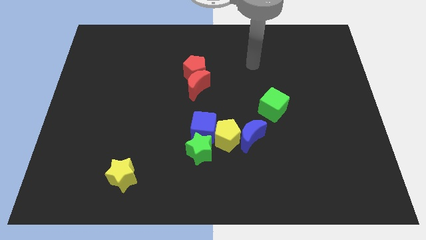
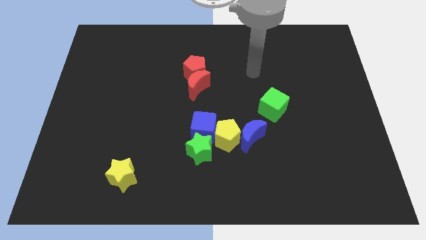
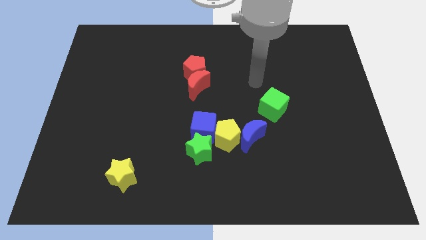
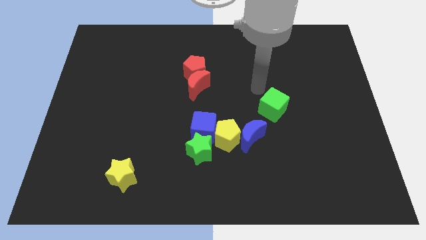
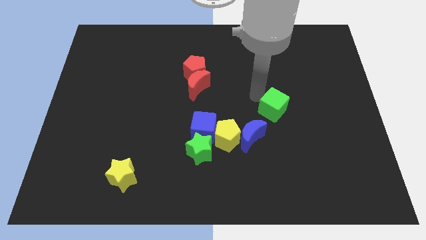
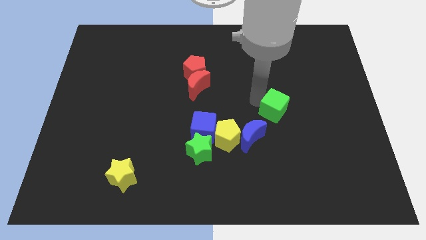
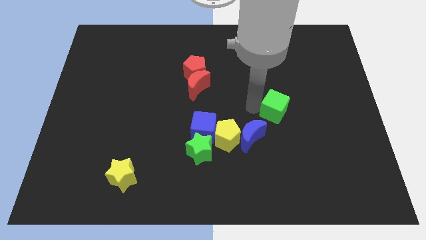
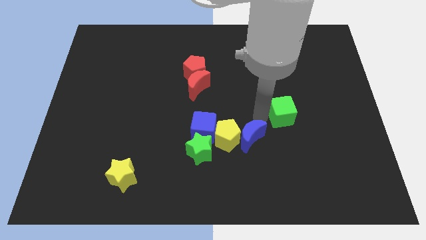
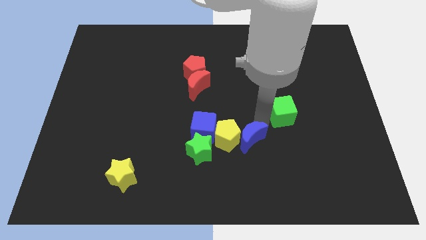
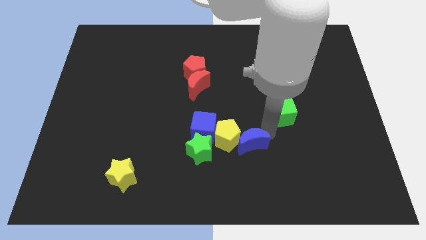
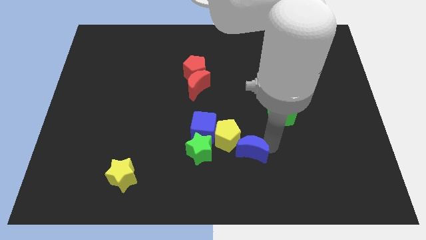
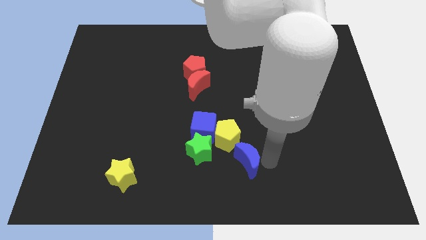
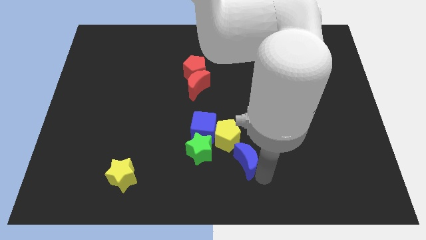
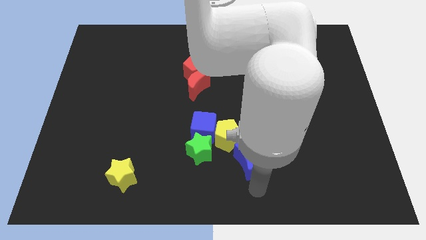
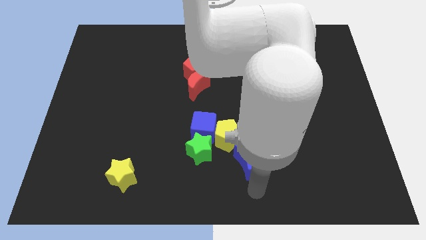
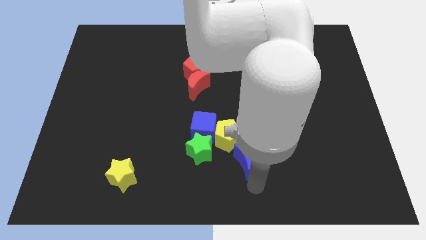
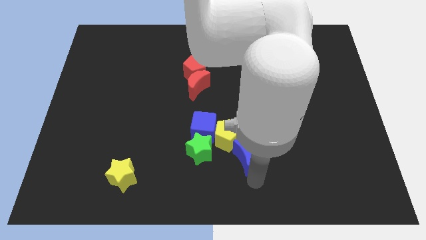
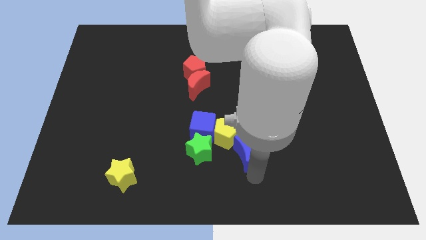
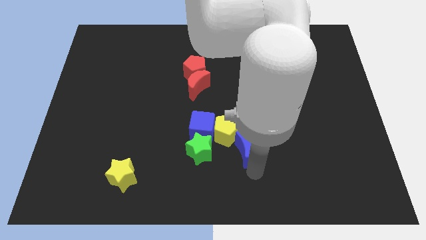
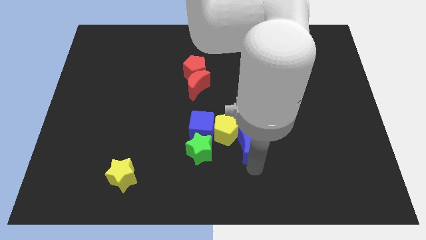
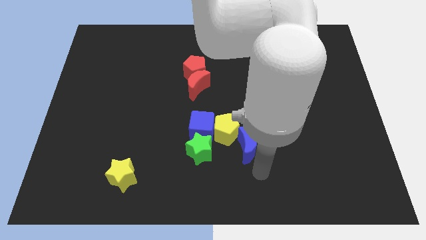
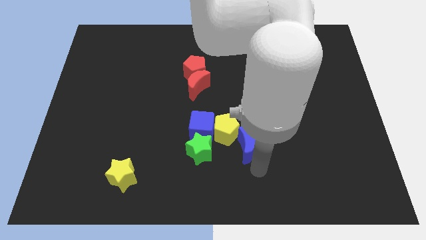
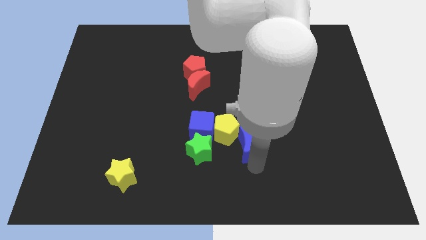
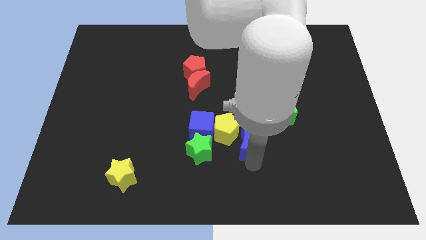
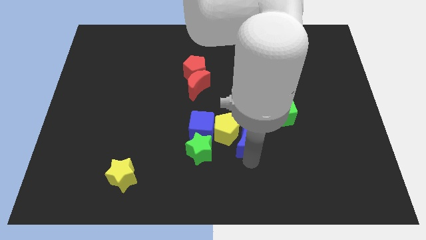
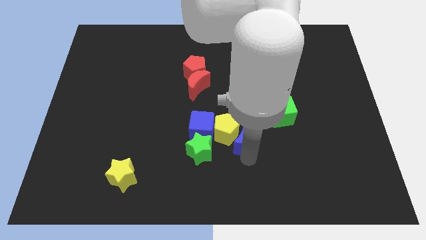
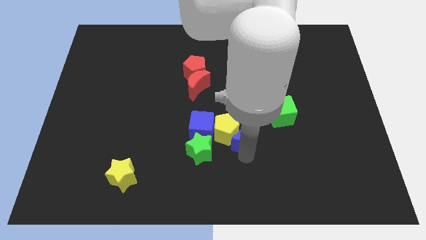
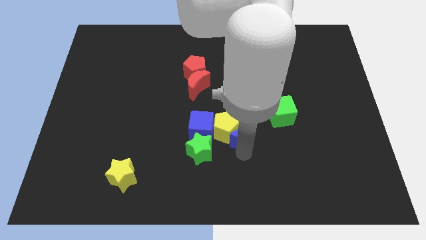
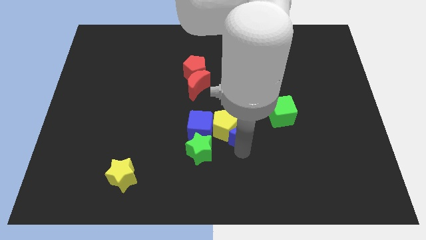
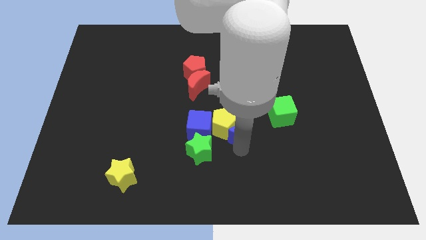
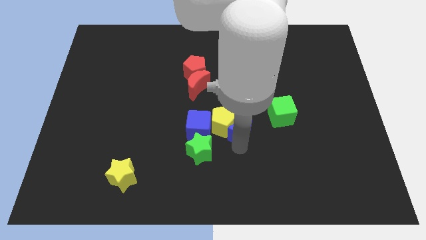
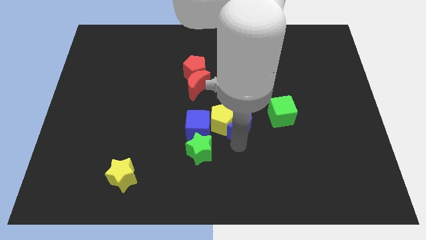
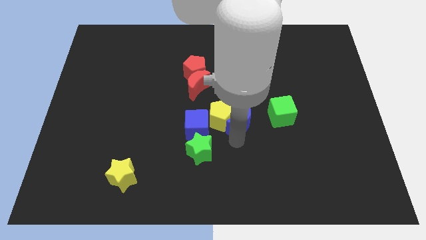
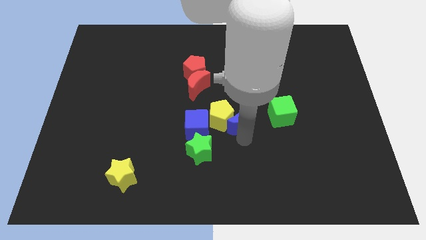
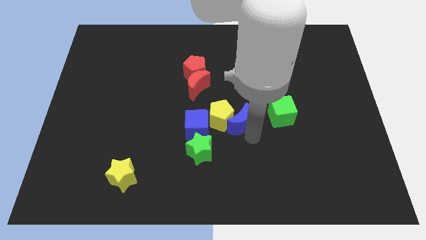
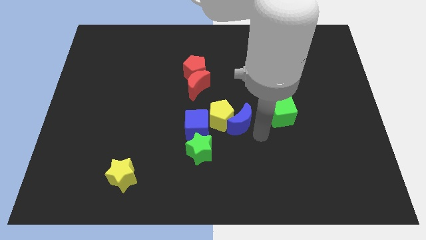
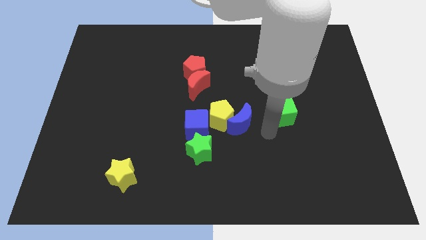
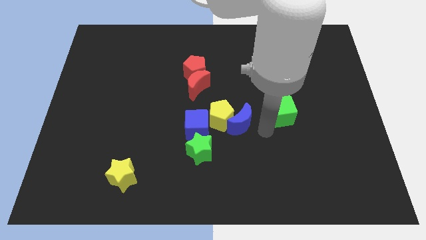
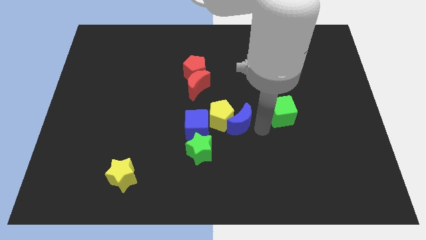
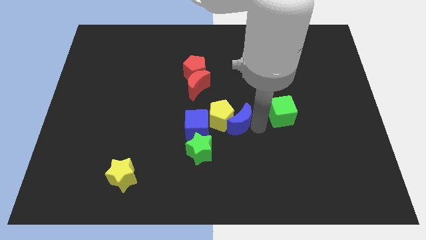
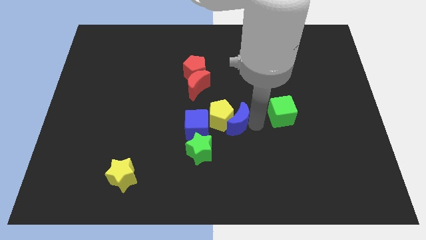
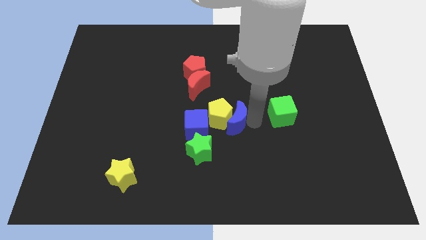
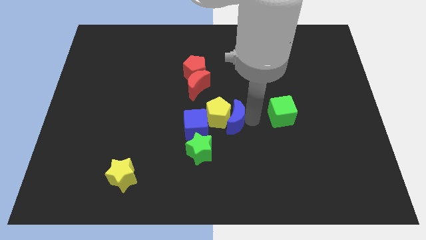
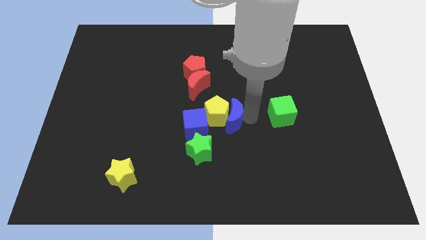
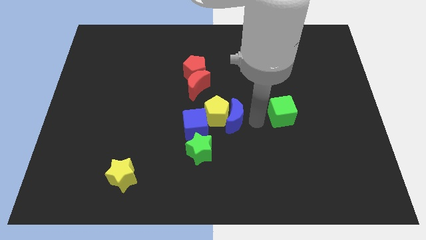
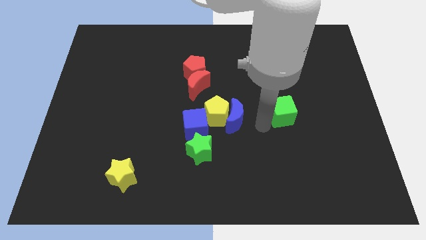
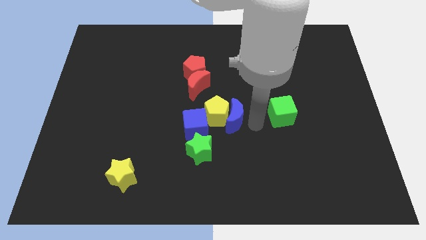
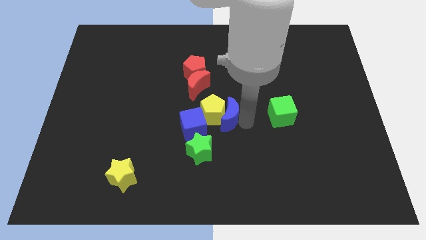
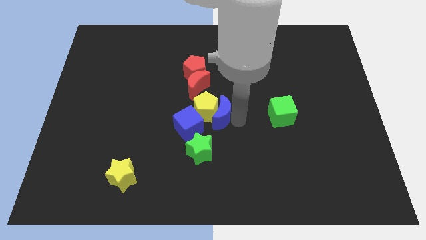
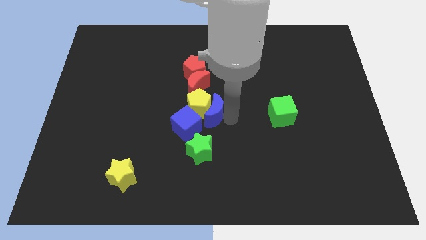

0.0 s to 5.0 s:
put the blue moon to the top of the green star

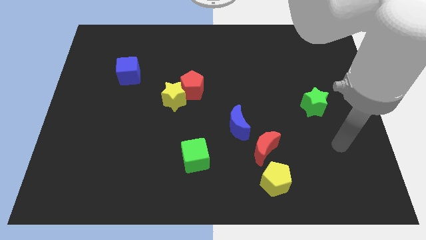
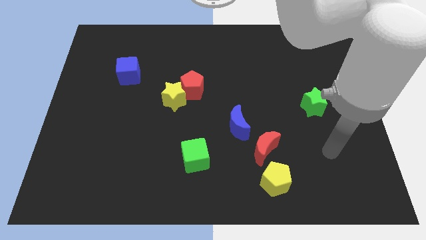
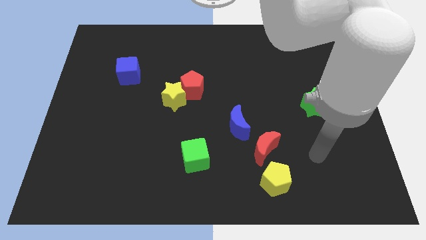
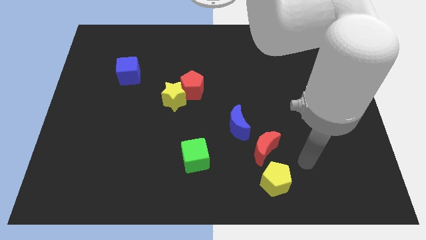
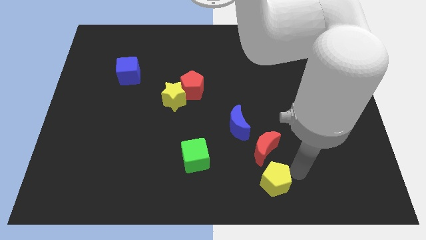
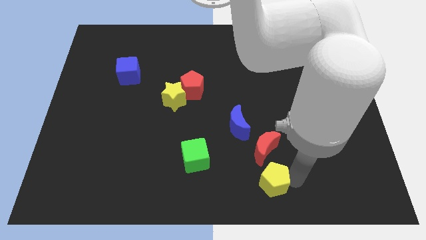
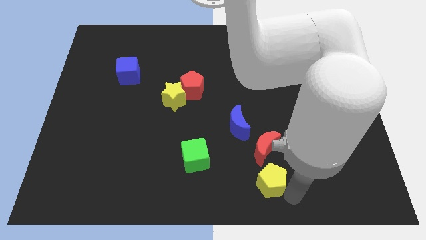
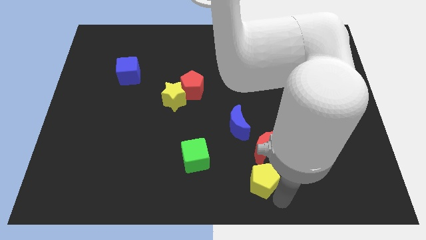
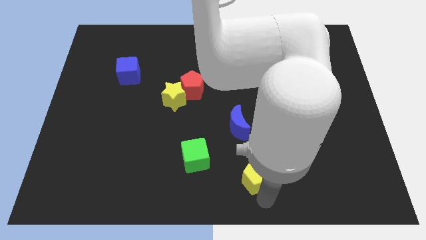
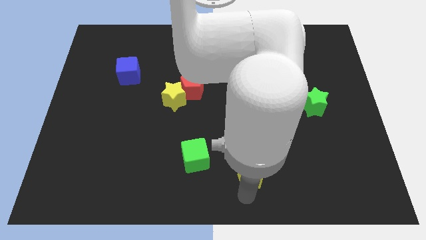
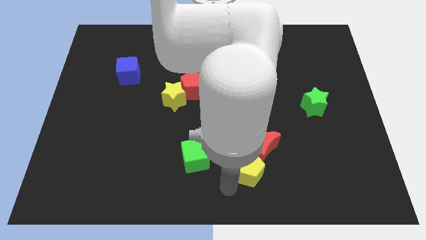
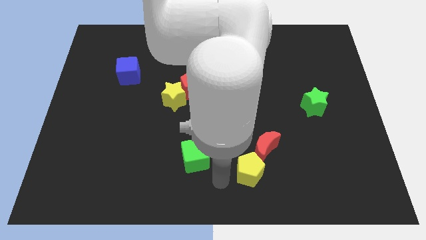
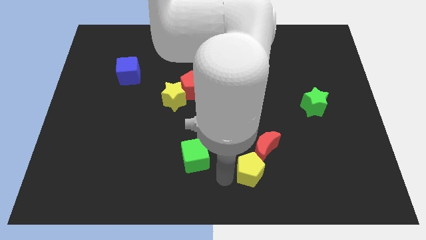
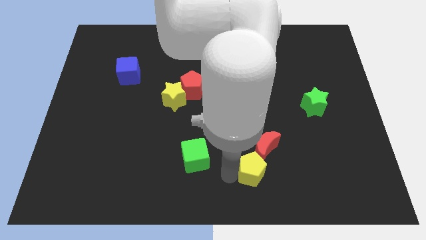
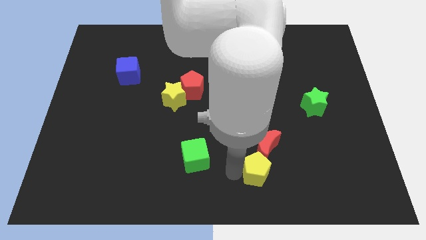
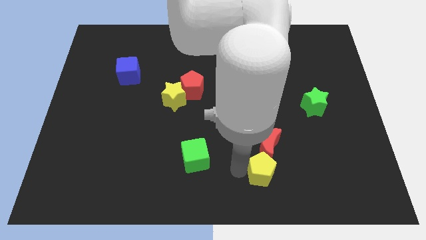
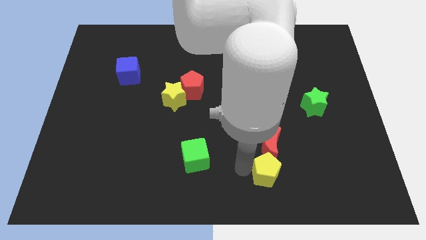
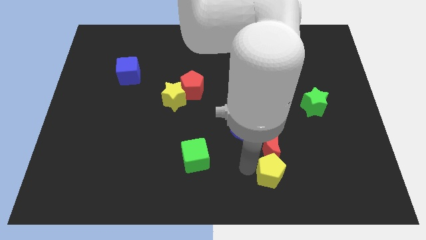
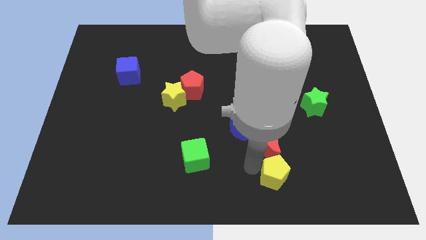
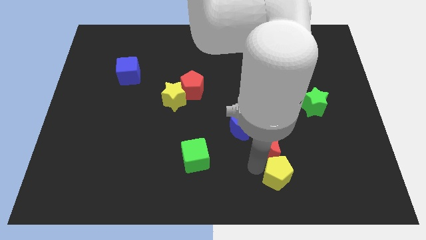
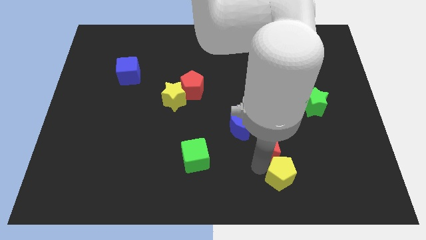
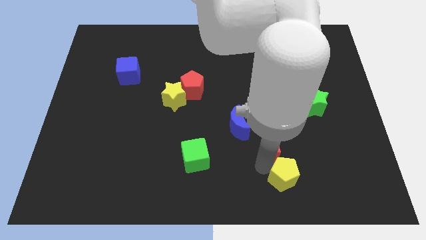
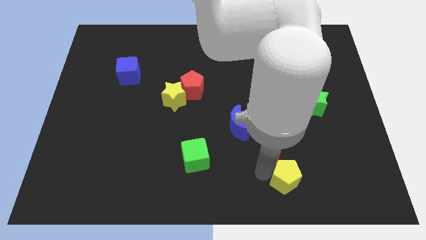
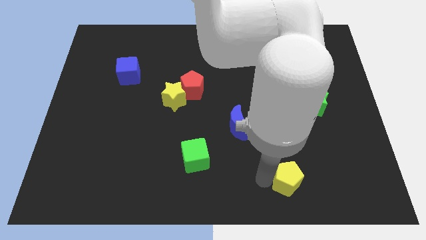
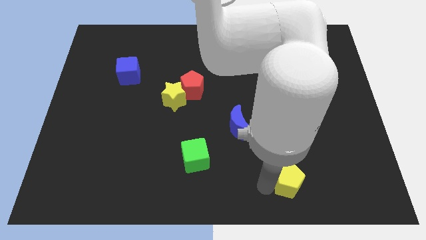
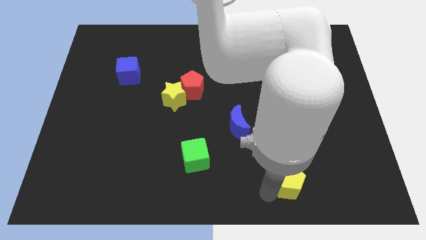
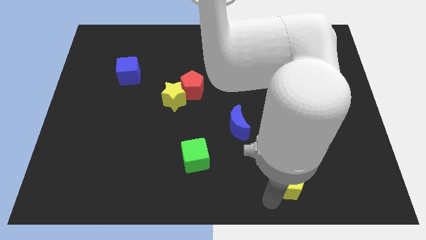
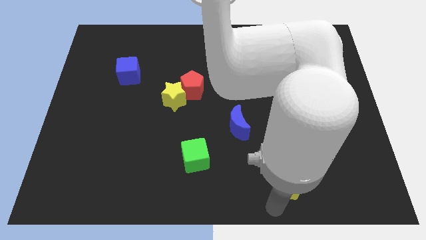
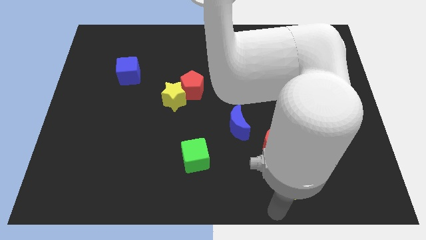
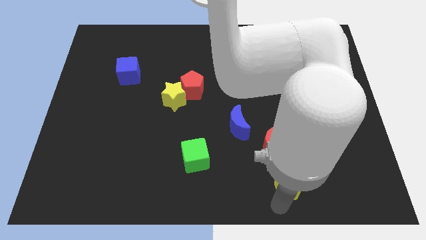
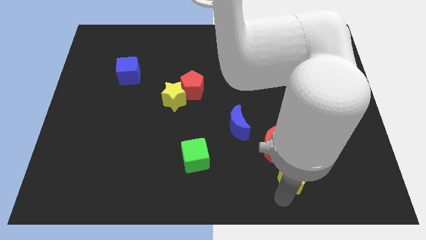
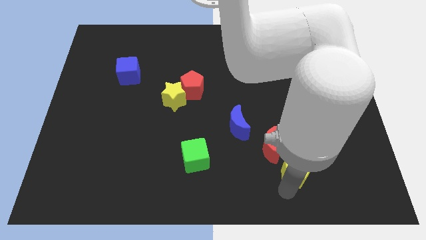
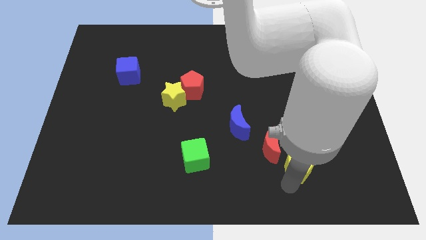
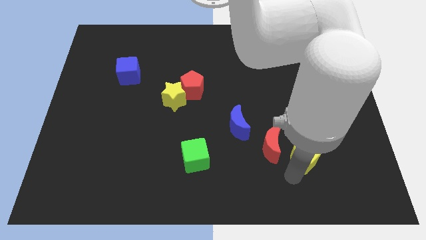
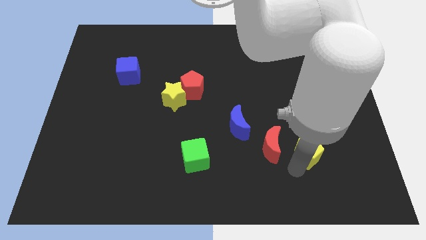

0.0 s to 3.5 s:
push the yellow pentagon to the bottom of the green star
